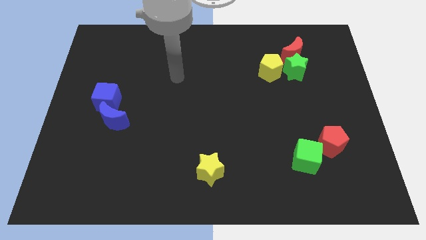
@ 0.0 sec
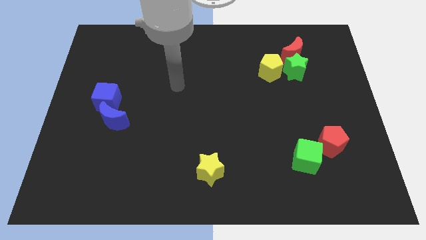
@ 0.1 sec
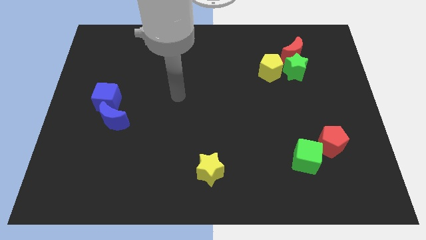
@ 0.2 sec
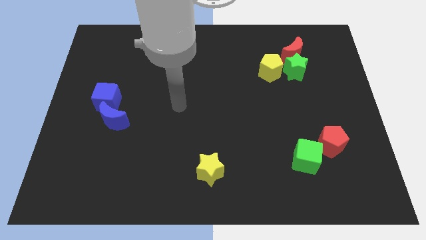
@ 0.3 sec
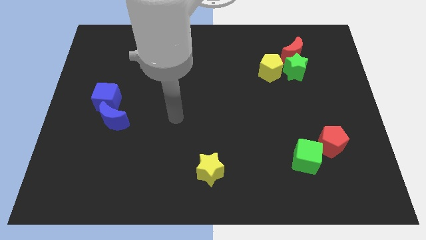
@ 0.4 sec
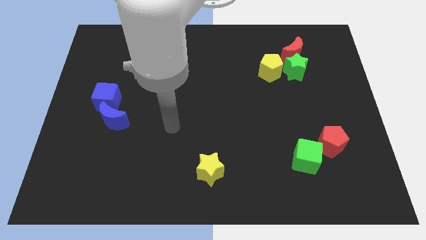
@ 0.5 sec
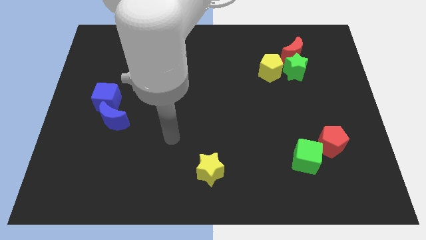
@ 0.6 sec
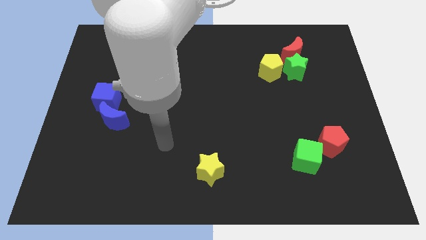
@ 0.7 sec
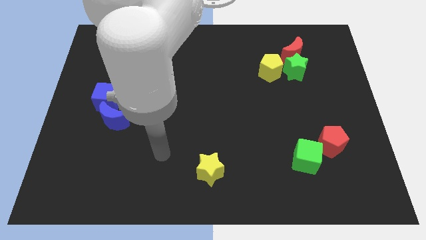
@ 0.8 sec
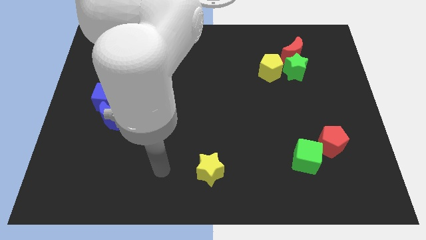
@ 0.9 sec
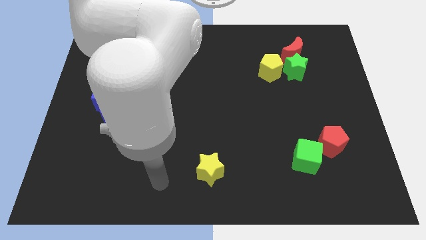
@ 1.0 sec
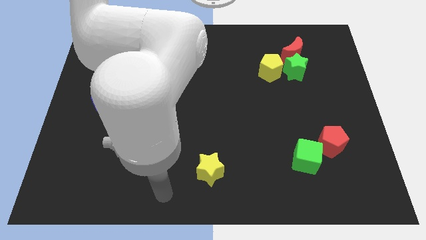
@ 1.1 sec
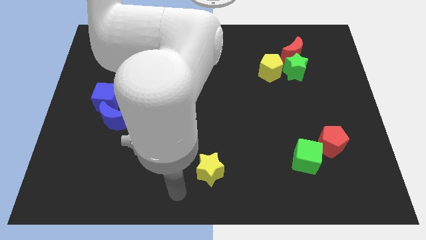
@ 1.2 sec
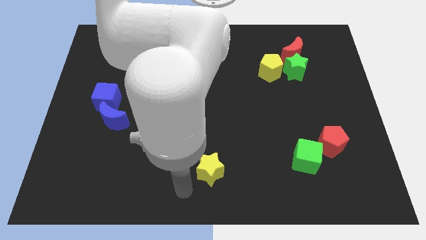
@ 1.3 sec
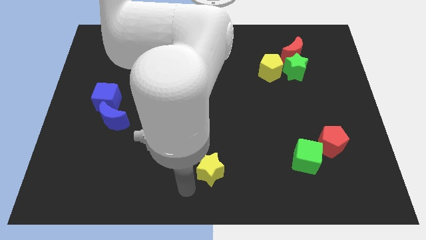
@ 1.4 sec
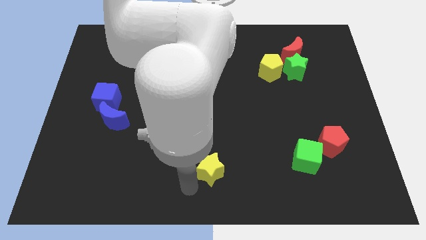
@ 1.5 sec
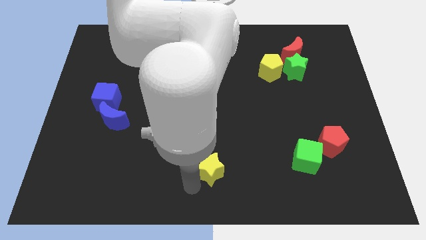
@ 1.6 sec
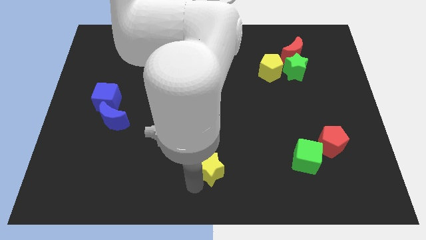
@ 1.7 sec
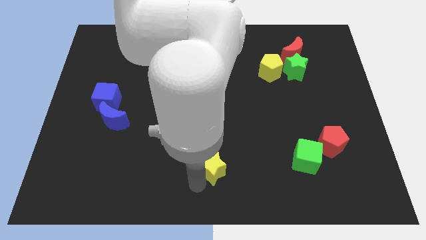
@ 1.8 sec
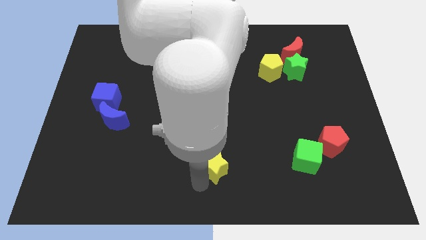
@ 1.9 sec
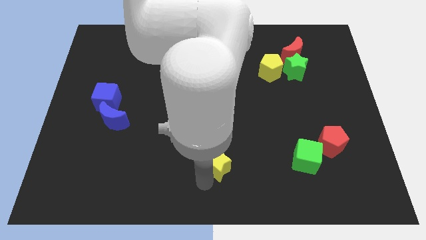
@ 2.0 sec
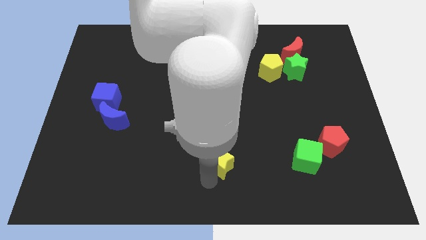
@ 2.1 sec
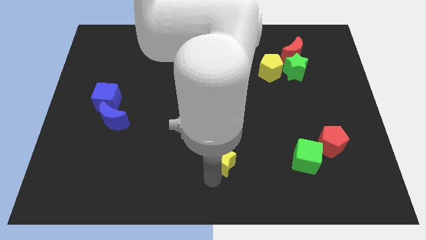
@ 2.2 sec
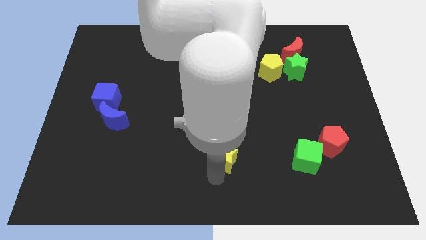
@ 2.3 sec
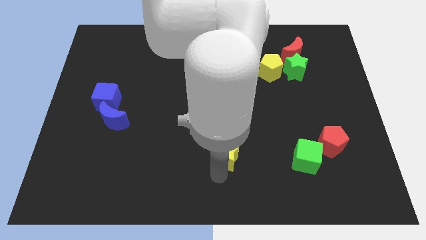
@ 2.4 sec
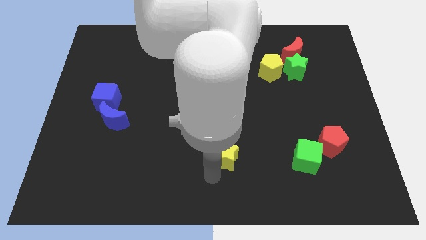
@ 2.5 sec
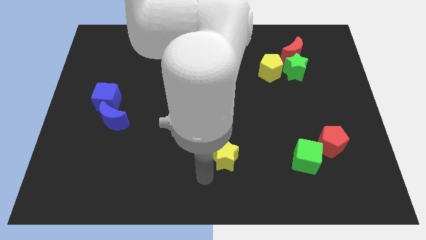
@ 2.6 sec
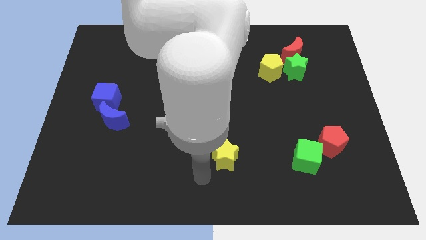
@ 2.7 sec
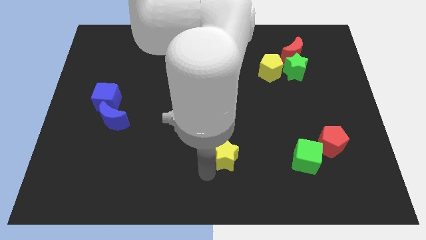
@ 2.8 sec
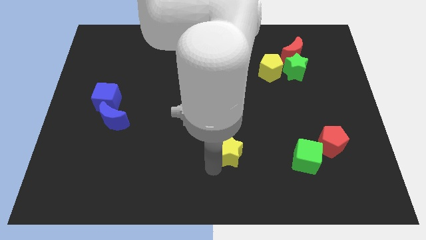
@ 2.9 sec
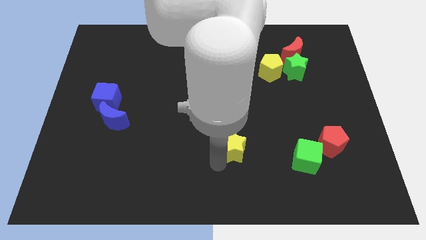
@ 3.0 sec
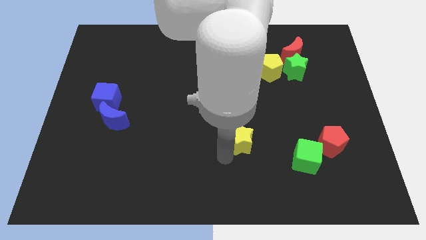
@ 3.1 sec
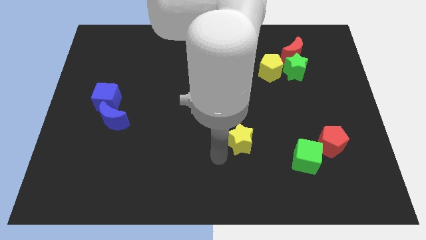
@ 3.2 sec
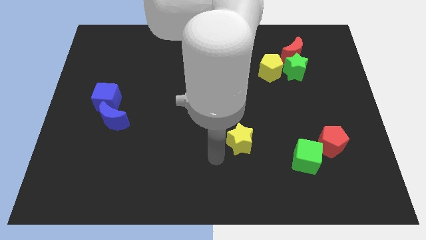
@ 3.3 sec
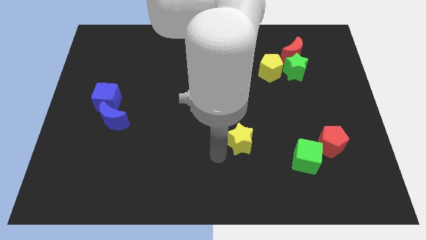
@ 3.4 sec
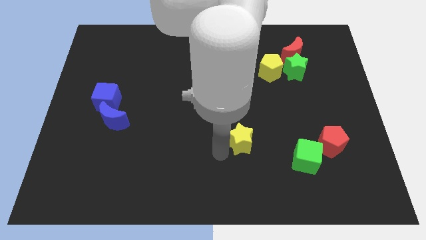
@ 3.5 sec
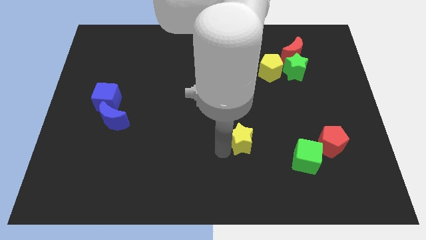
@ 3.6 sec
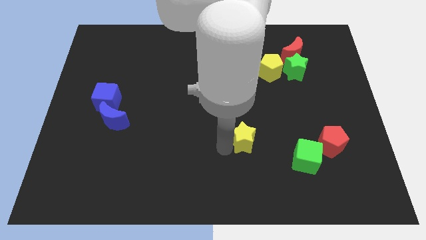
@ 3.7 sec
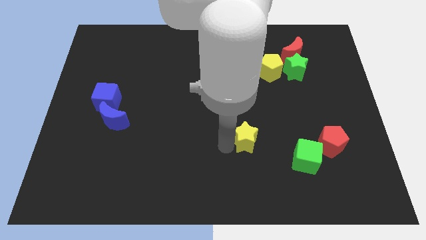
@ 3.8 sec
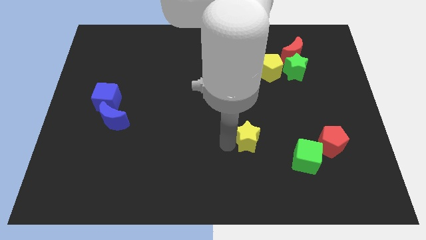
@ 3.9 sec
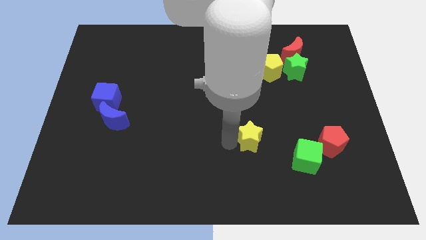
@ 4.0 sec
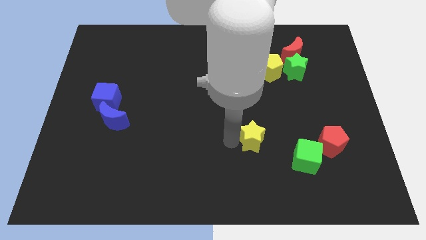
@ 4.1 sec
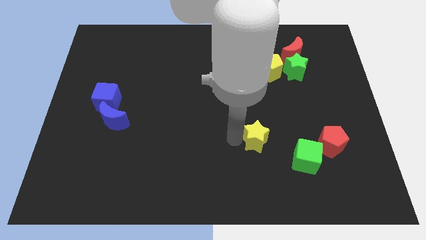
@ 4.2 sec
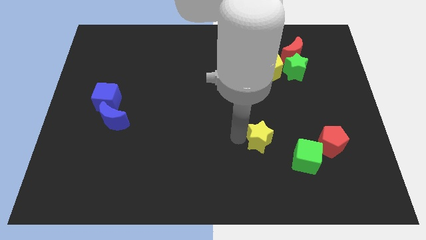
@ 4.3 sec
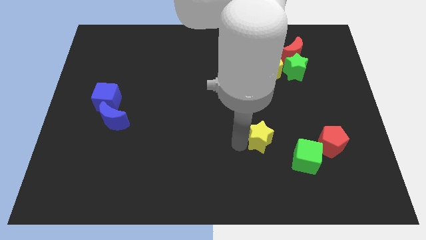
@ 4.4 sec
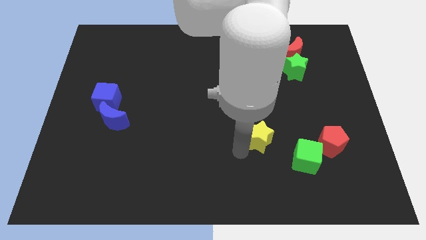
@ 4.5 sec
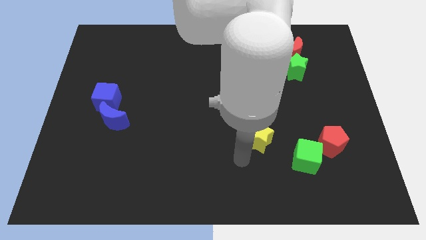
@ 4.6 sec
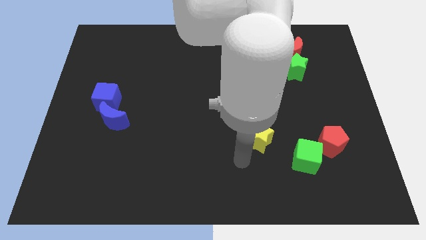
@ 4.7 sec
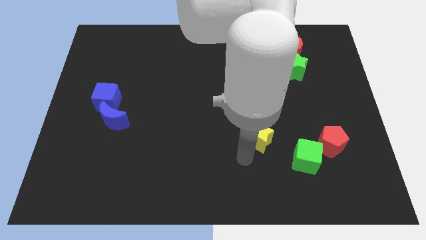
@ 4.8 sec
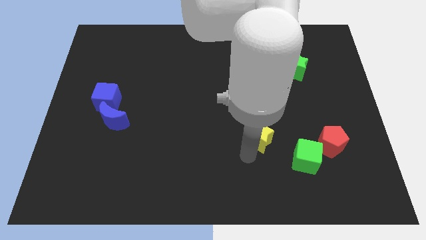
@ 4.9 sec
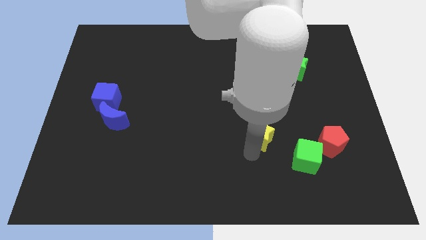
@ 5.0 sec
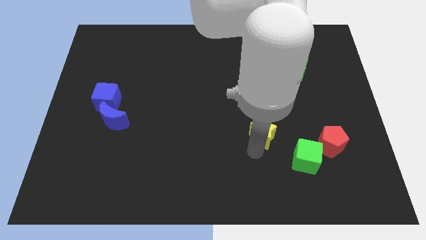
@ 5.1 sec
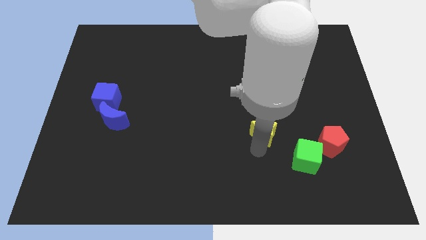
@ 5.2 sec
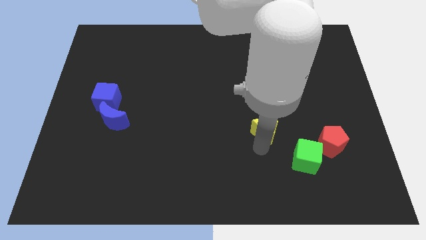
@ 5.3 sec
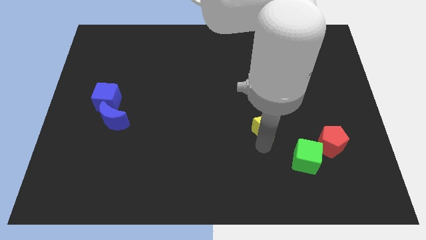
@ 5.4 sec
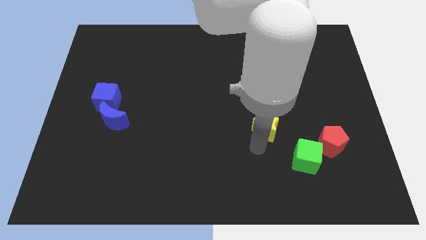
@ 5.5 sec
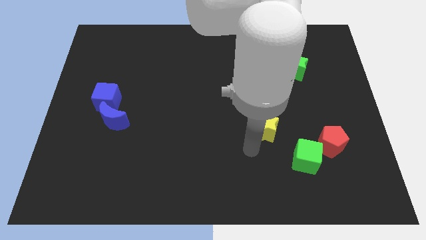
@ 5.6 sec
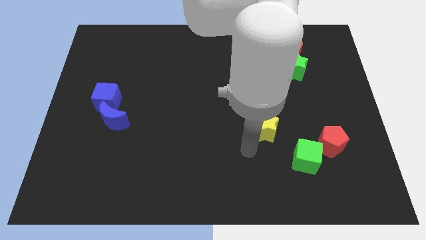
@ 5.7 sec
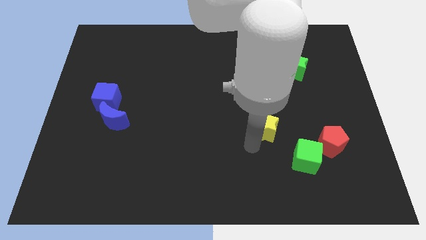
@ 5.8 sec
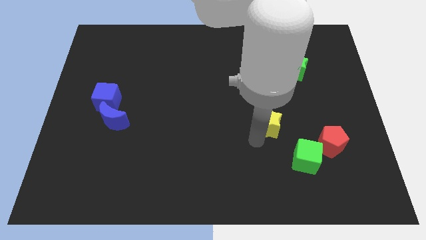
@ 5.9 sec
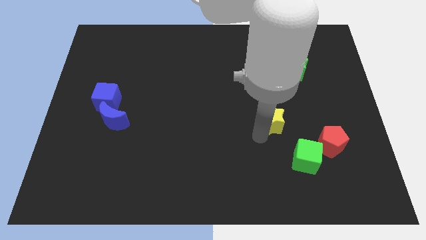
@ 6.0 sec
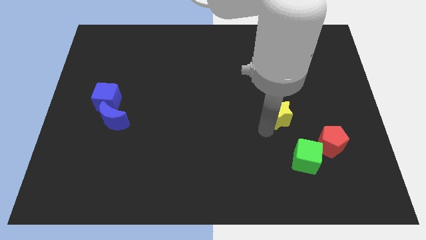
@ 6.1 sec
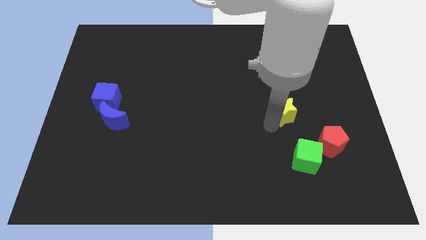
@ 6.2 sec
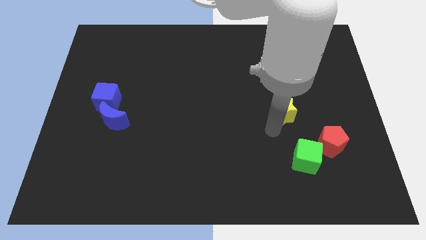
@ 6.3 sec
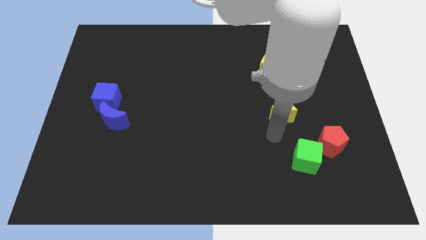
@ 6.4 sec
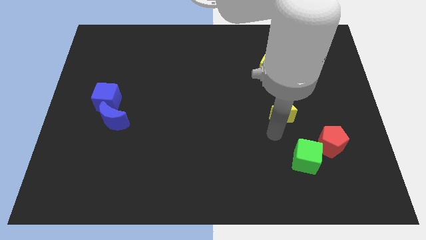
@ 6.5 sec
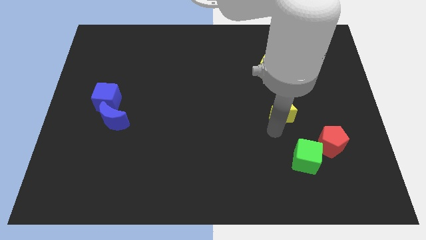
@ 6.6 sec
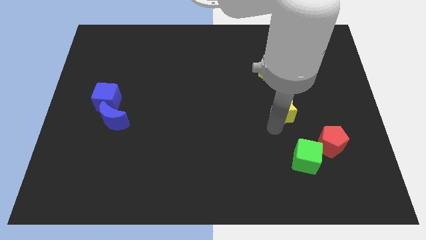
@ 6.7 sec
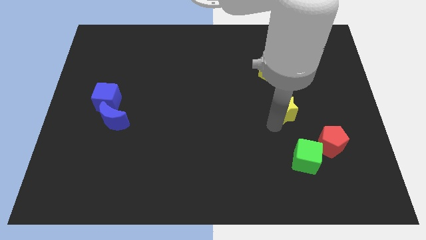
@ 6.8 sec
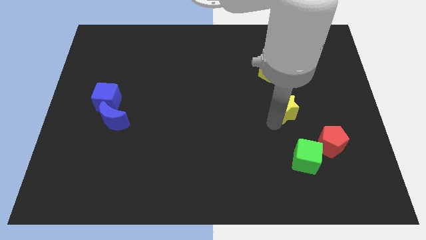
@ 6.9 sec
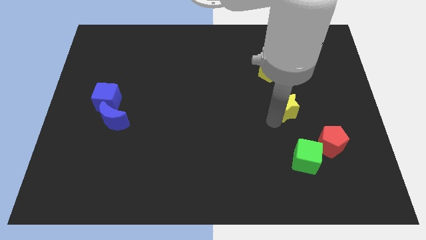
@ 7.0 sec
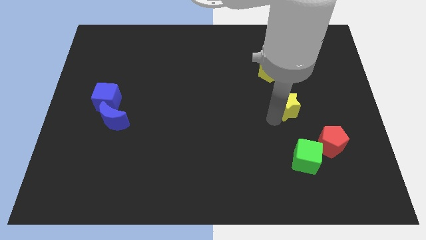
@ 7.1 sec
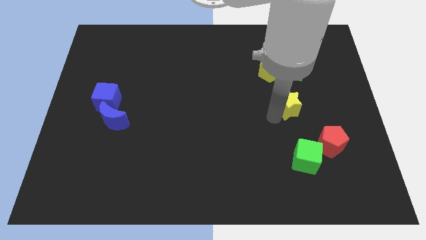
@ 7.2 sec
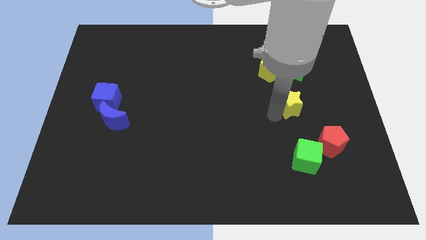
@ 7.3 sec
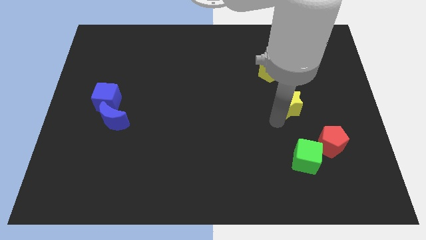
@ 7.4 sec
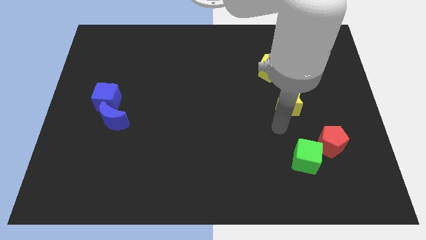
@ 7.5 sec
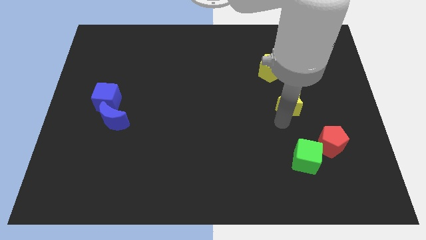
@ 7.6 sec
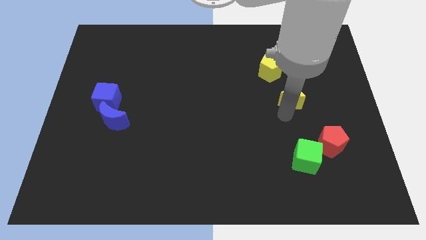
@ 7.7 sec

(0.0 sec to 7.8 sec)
put the yellow star below the red moon
